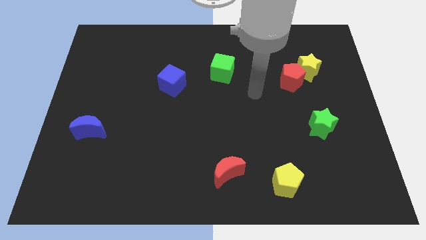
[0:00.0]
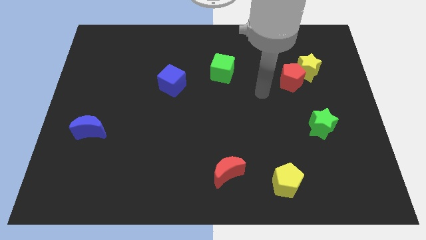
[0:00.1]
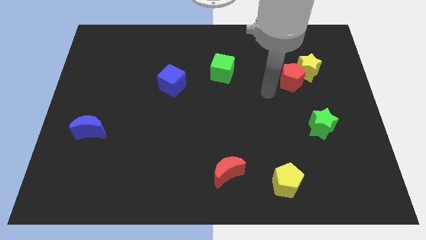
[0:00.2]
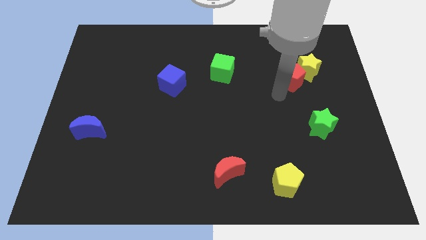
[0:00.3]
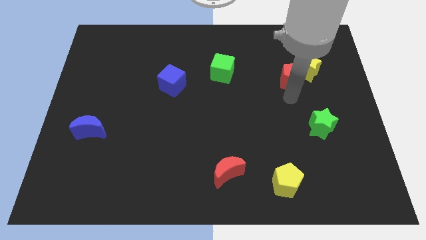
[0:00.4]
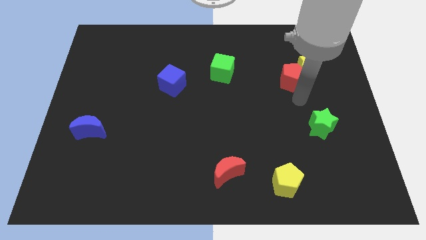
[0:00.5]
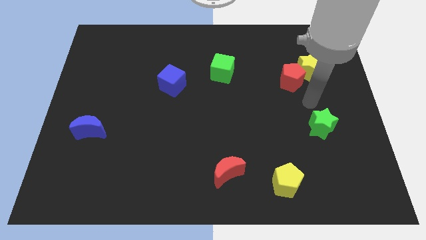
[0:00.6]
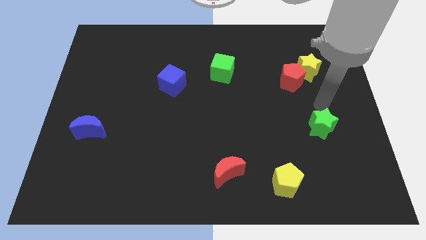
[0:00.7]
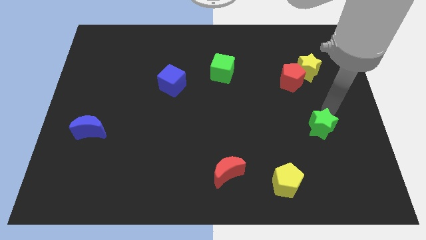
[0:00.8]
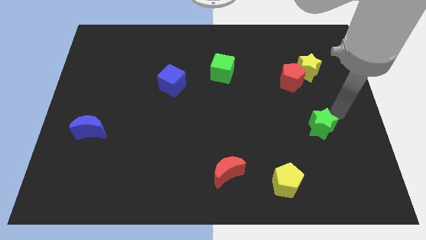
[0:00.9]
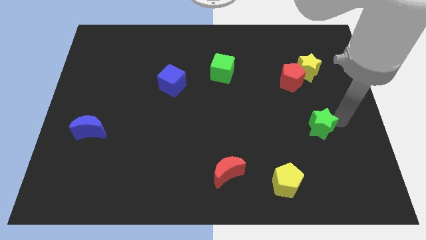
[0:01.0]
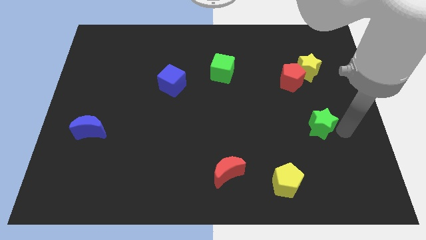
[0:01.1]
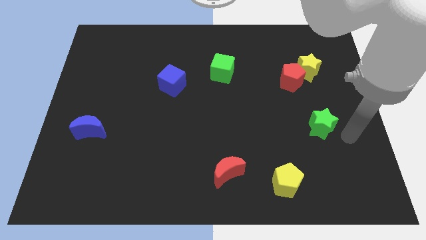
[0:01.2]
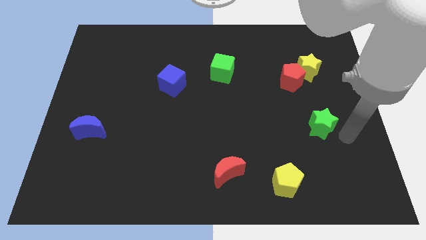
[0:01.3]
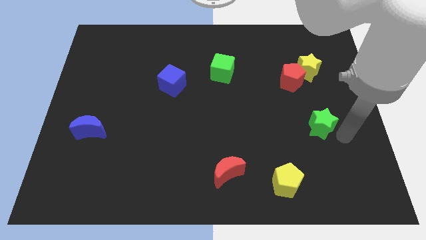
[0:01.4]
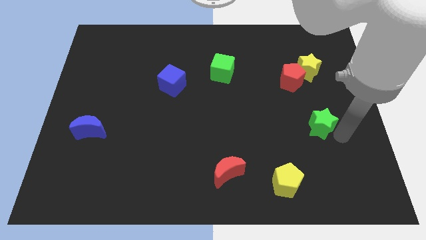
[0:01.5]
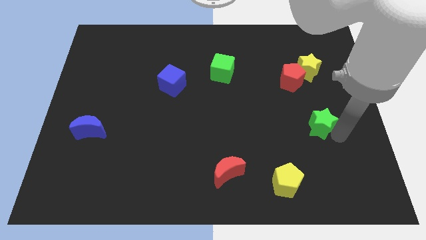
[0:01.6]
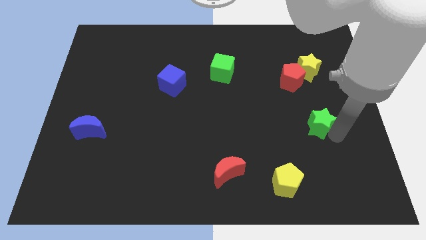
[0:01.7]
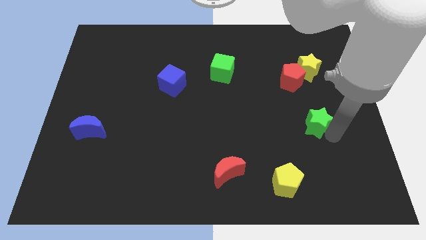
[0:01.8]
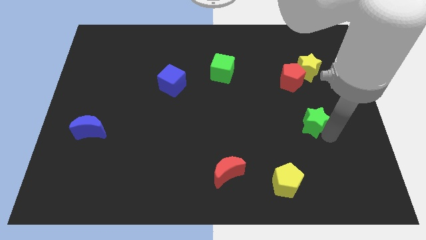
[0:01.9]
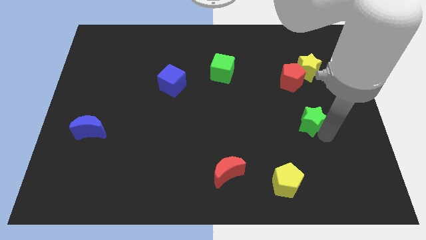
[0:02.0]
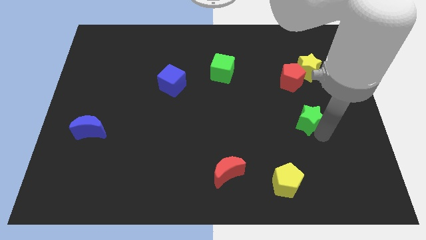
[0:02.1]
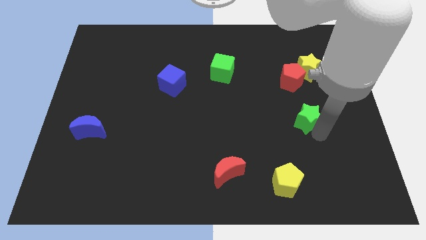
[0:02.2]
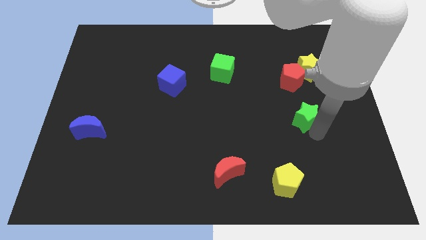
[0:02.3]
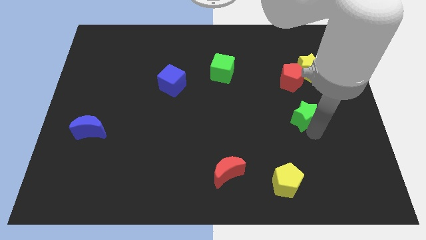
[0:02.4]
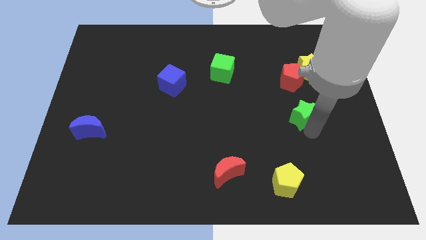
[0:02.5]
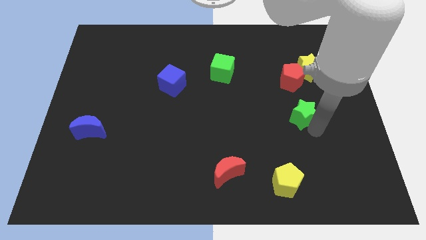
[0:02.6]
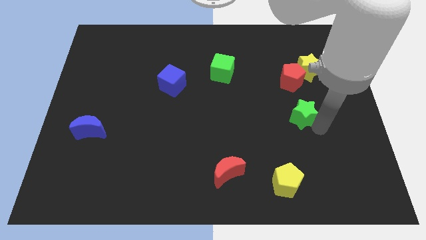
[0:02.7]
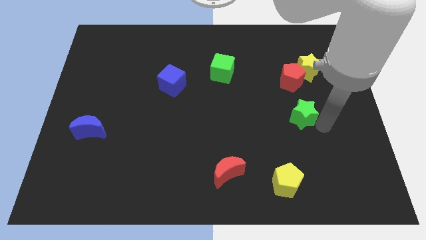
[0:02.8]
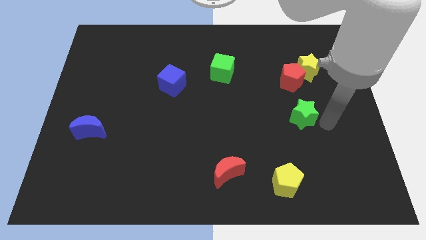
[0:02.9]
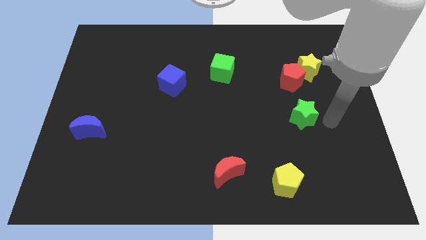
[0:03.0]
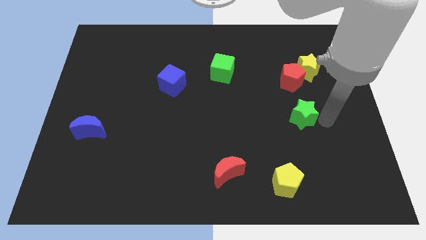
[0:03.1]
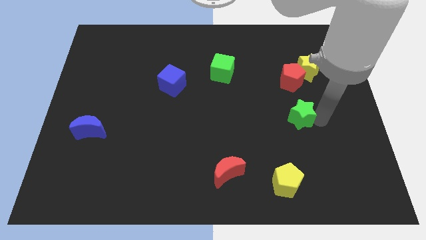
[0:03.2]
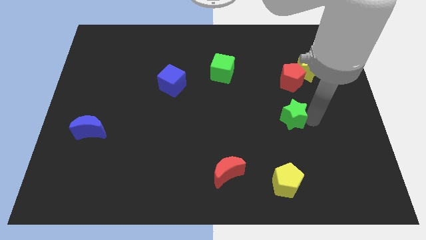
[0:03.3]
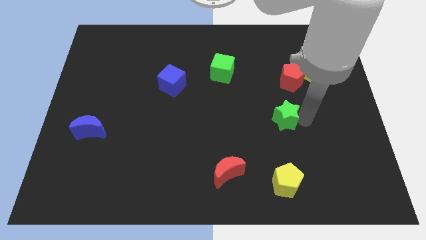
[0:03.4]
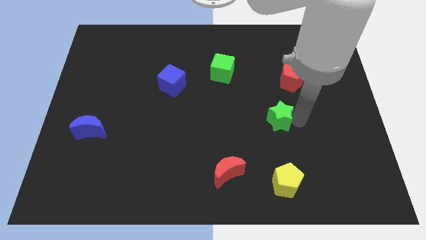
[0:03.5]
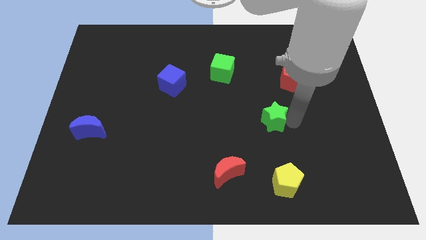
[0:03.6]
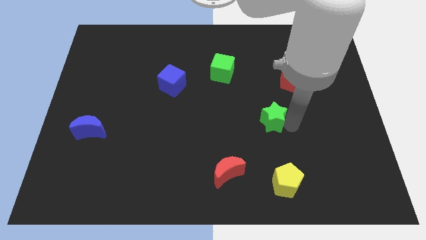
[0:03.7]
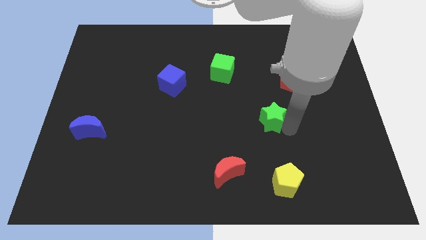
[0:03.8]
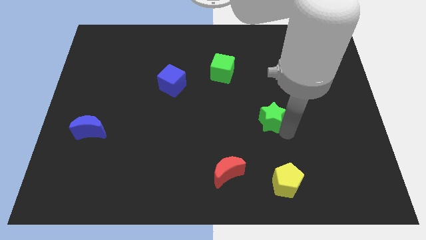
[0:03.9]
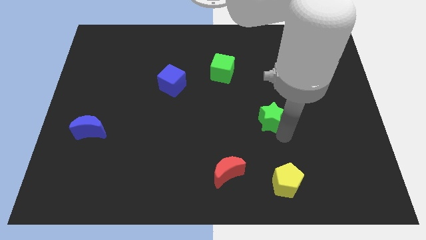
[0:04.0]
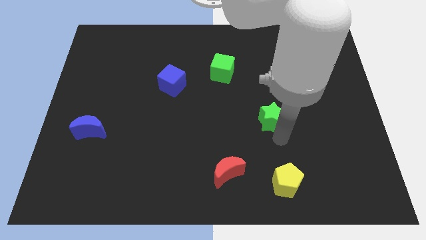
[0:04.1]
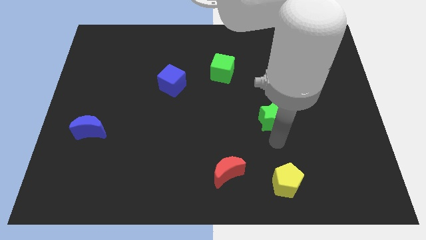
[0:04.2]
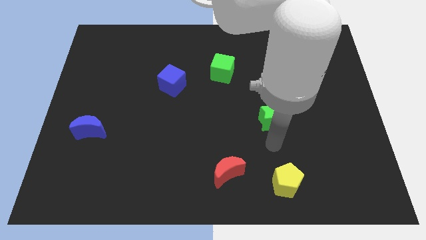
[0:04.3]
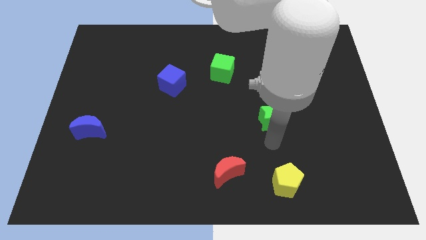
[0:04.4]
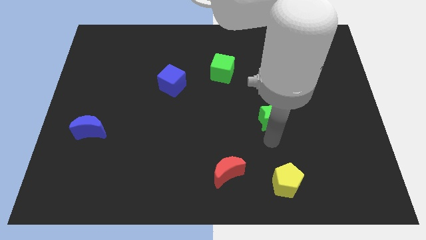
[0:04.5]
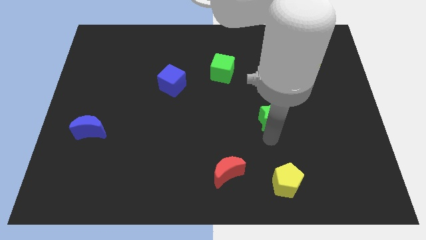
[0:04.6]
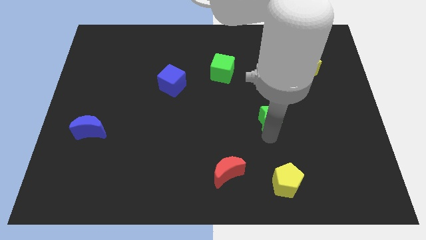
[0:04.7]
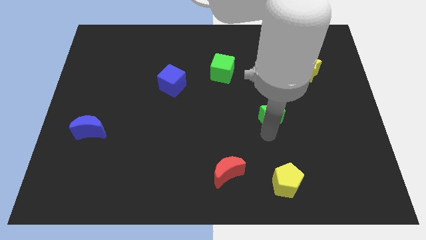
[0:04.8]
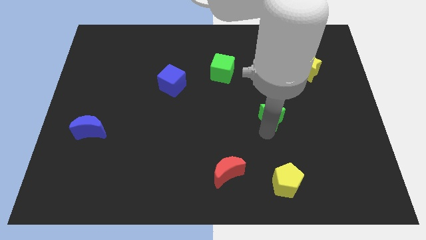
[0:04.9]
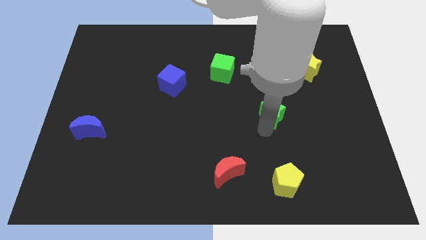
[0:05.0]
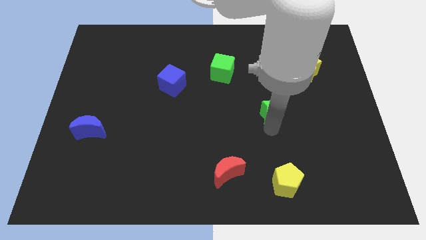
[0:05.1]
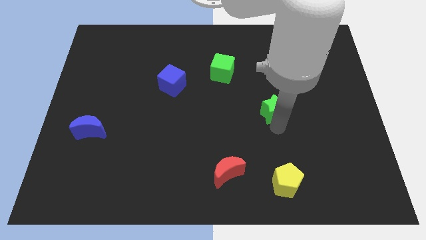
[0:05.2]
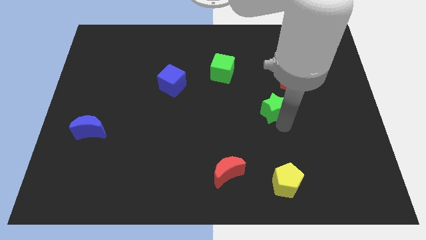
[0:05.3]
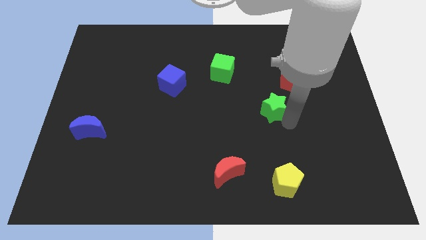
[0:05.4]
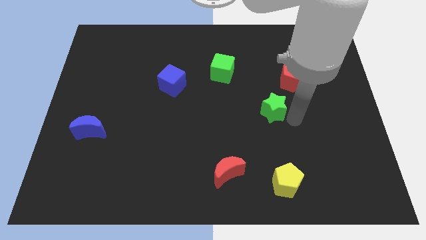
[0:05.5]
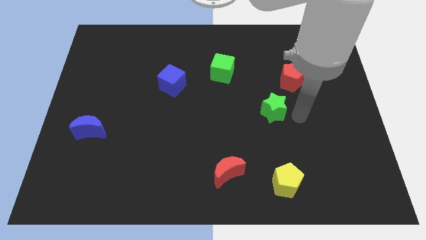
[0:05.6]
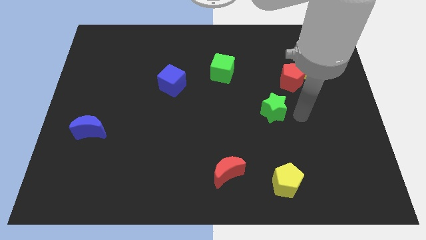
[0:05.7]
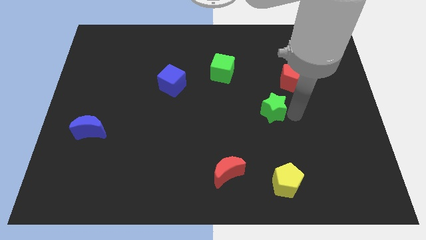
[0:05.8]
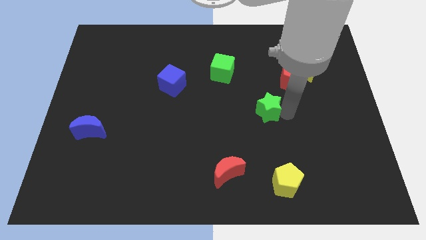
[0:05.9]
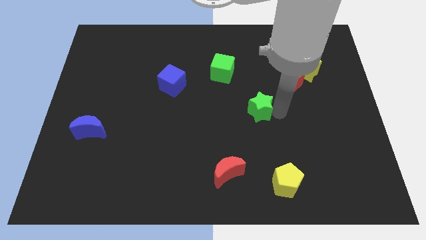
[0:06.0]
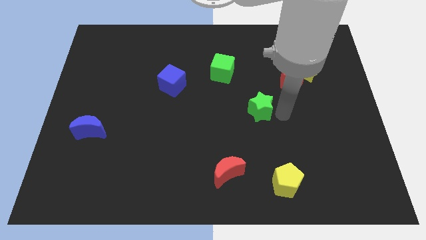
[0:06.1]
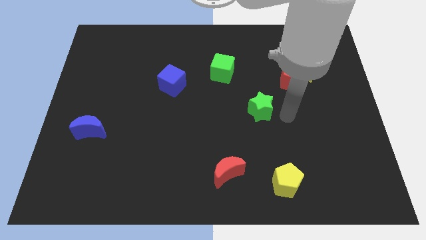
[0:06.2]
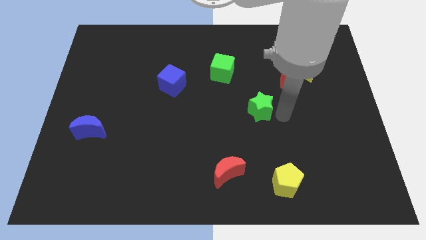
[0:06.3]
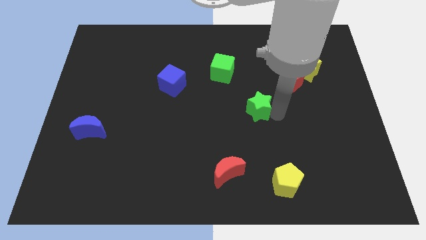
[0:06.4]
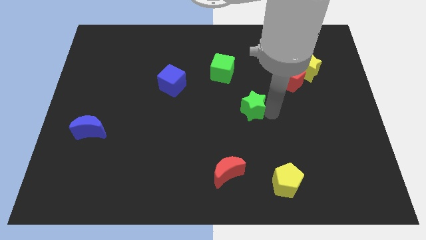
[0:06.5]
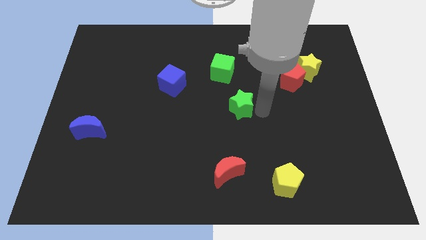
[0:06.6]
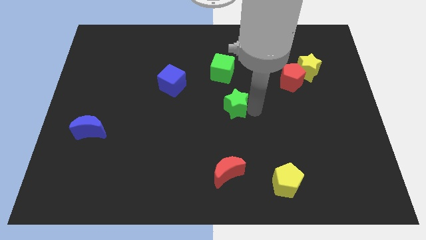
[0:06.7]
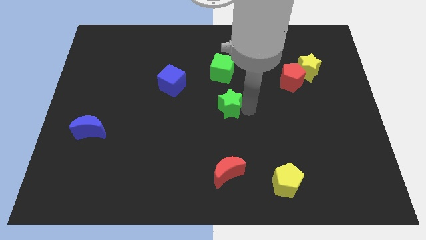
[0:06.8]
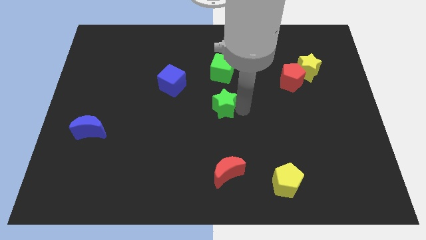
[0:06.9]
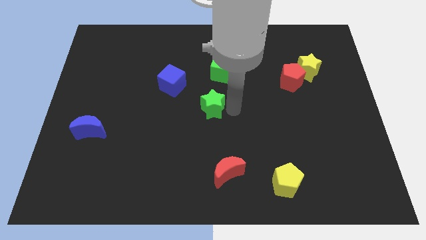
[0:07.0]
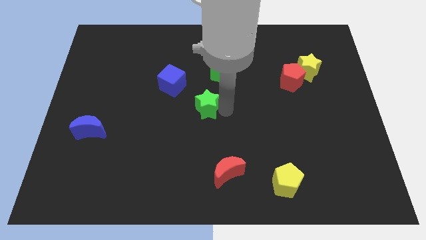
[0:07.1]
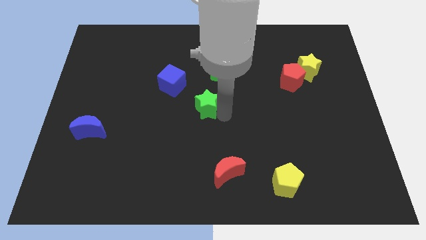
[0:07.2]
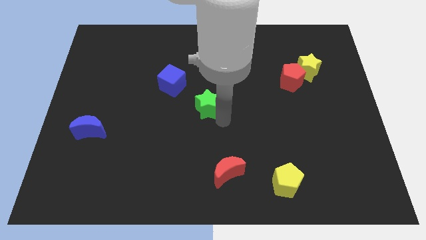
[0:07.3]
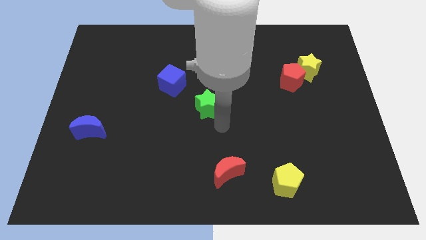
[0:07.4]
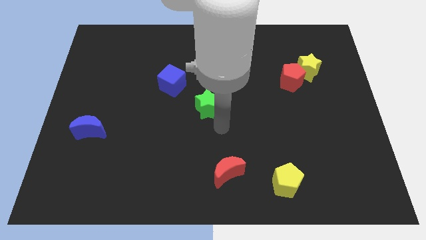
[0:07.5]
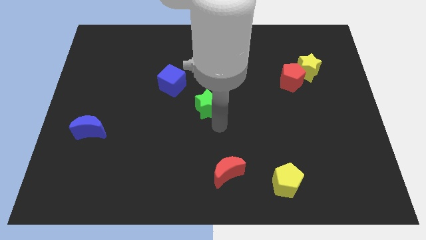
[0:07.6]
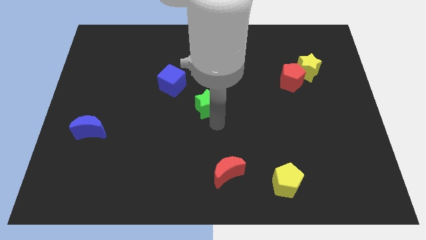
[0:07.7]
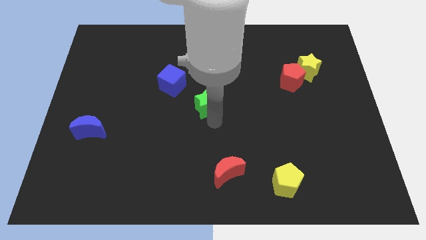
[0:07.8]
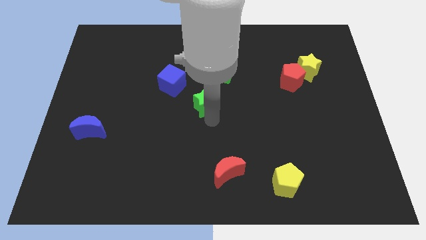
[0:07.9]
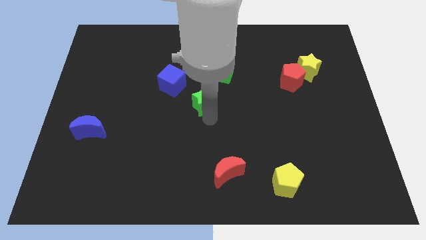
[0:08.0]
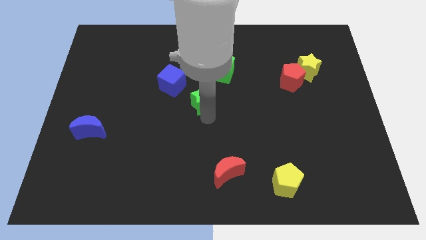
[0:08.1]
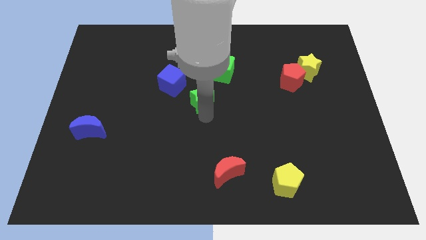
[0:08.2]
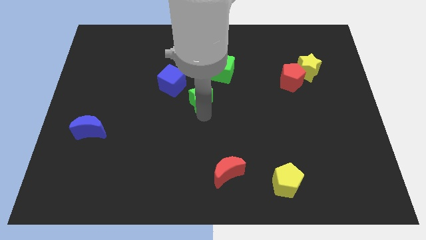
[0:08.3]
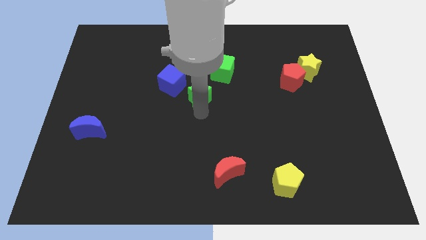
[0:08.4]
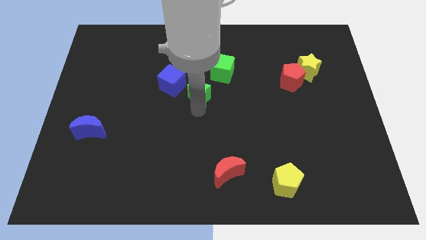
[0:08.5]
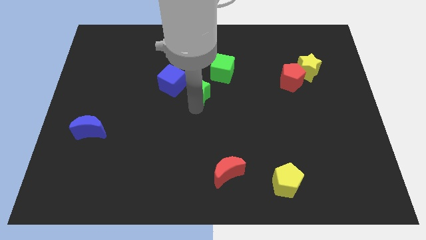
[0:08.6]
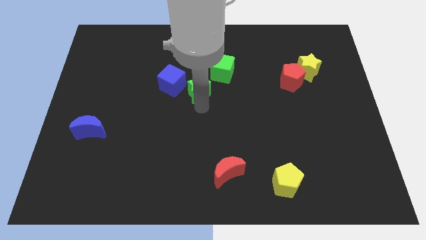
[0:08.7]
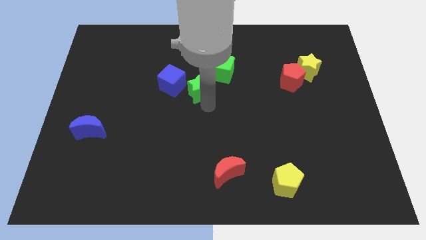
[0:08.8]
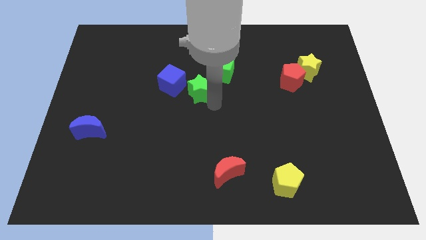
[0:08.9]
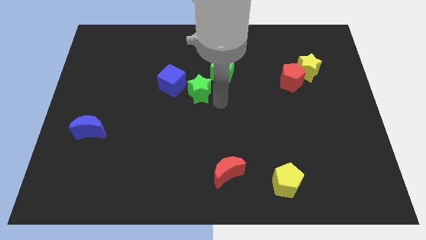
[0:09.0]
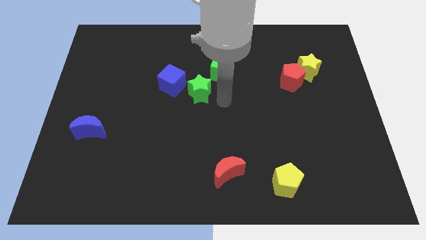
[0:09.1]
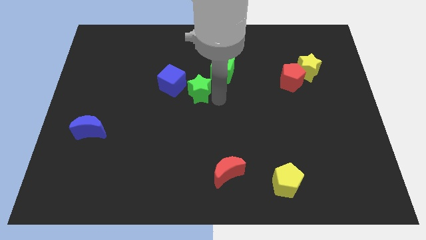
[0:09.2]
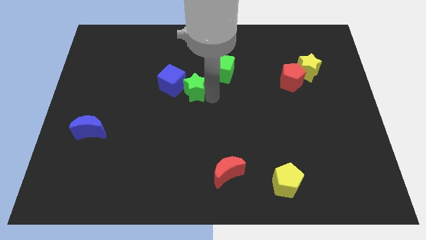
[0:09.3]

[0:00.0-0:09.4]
put the green star towards the blue cube
